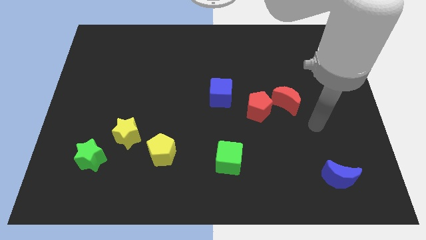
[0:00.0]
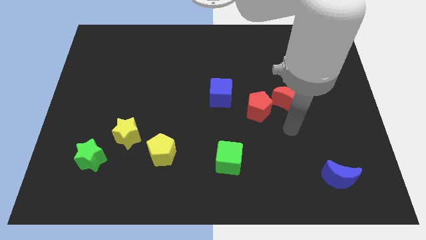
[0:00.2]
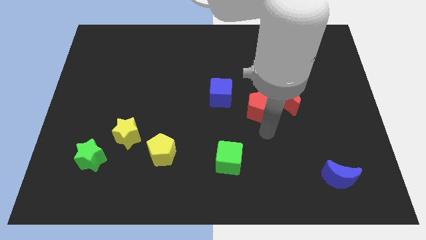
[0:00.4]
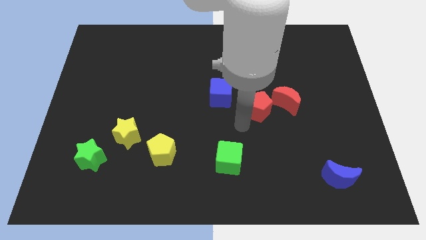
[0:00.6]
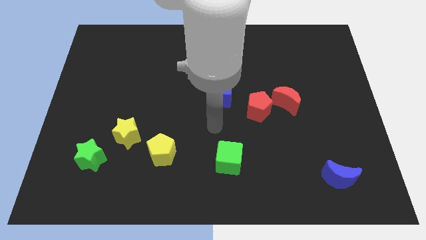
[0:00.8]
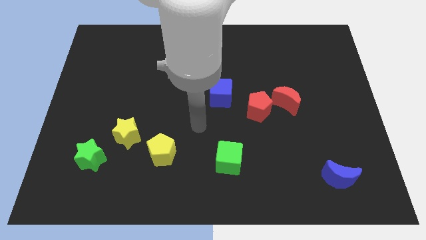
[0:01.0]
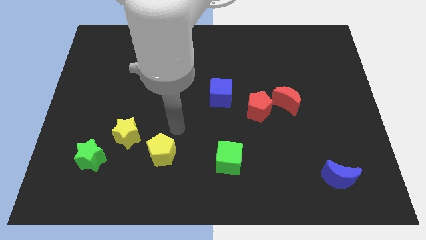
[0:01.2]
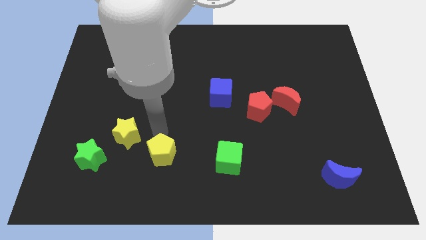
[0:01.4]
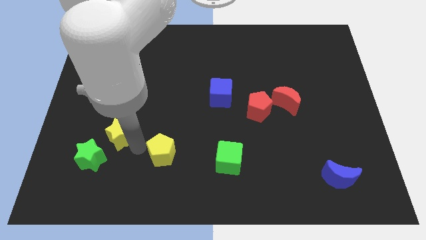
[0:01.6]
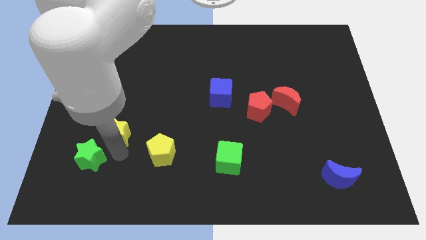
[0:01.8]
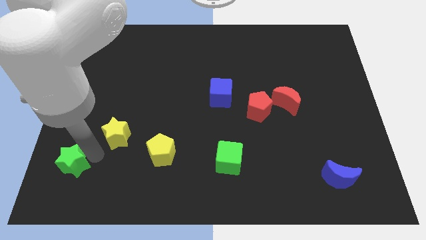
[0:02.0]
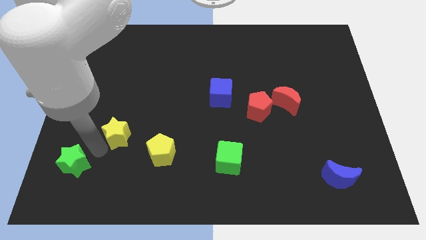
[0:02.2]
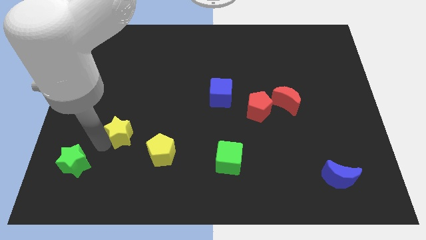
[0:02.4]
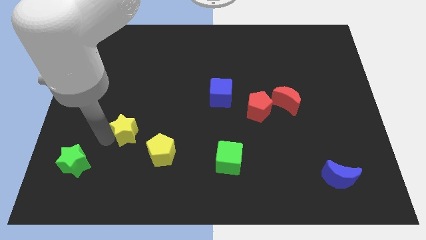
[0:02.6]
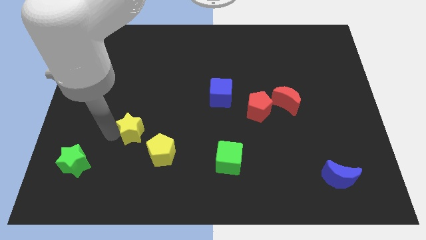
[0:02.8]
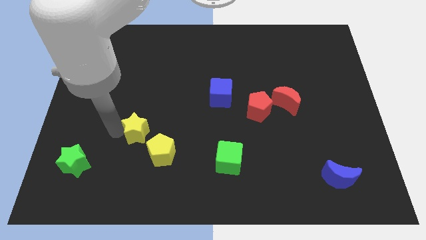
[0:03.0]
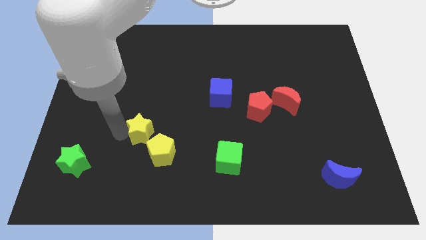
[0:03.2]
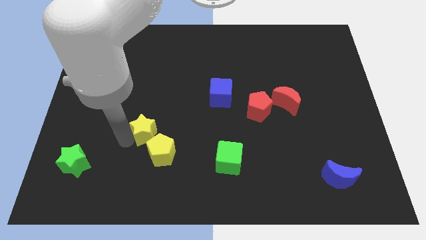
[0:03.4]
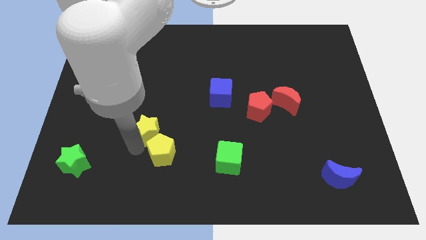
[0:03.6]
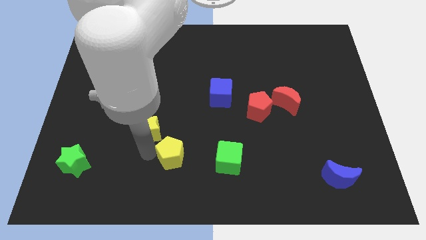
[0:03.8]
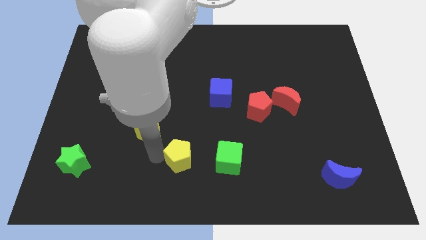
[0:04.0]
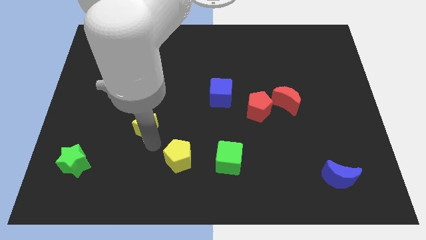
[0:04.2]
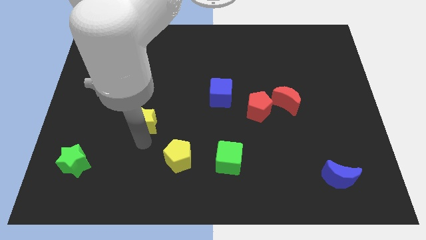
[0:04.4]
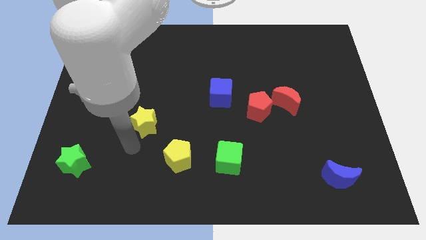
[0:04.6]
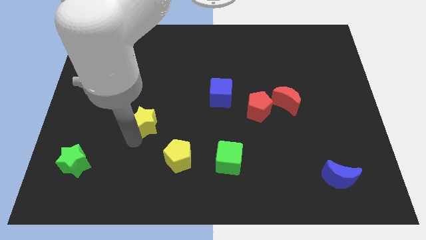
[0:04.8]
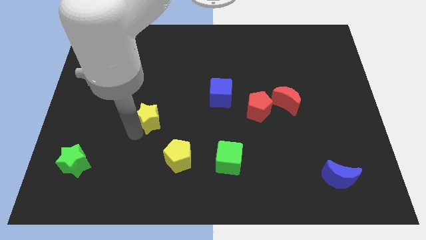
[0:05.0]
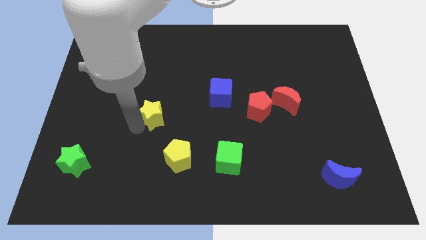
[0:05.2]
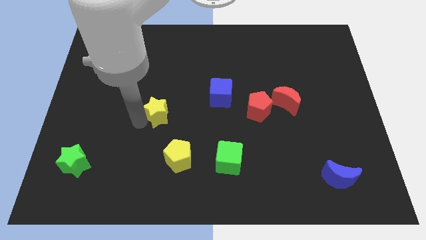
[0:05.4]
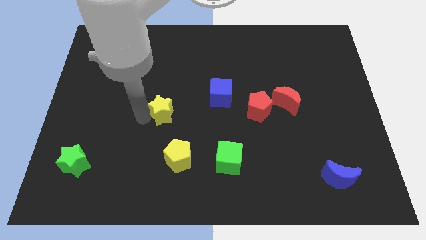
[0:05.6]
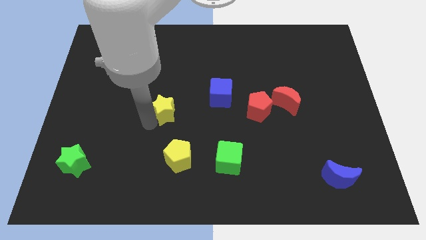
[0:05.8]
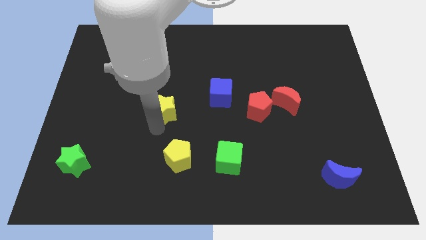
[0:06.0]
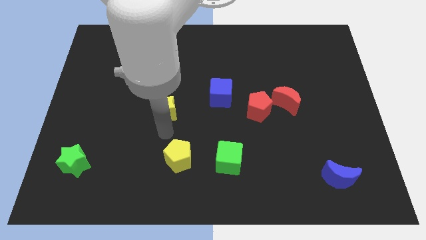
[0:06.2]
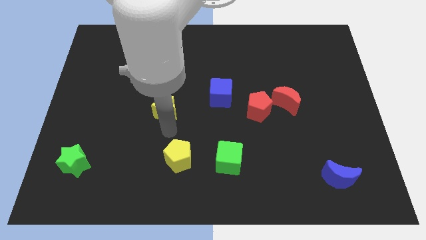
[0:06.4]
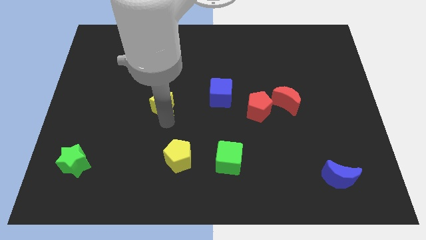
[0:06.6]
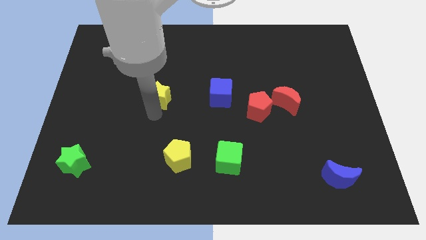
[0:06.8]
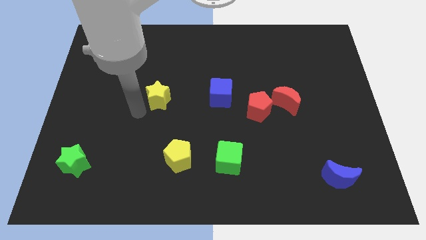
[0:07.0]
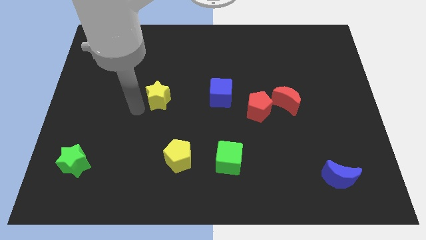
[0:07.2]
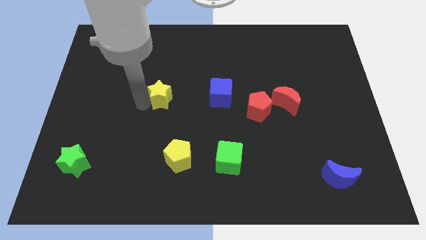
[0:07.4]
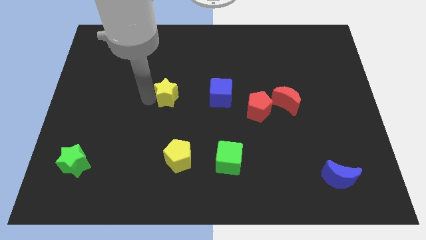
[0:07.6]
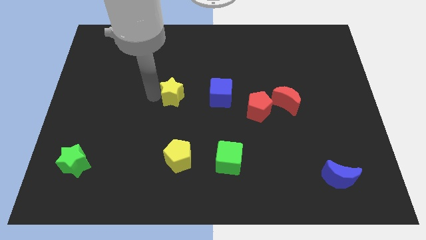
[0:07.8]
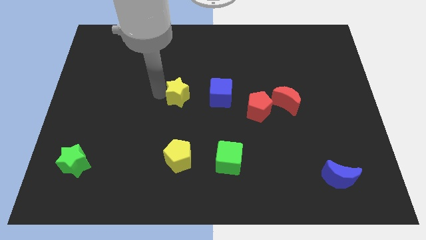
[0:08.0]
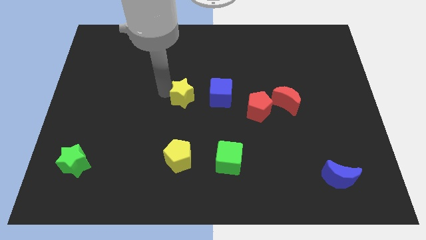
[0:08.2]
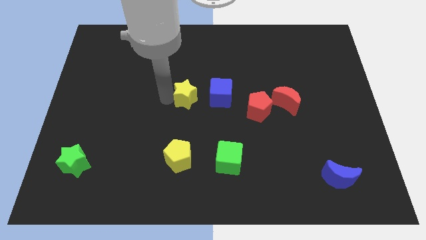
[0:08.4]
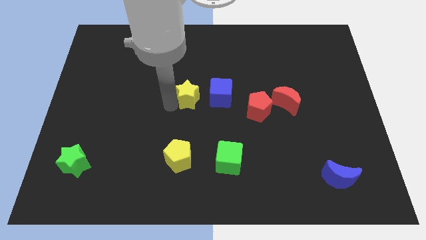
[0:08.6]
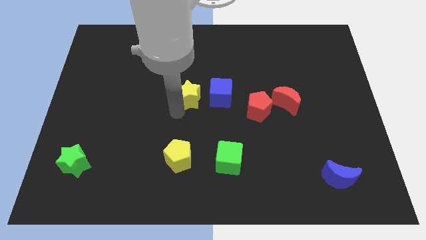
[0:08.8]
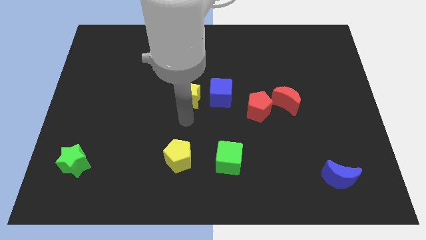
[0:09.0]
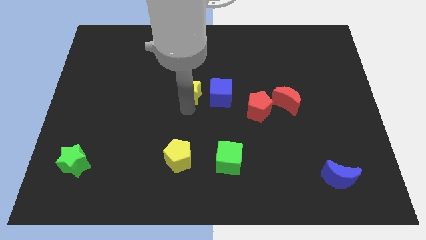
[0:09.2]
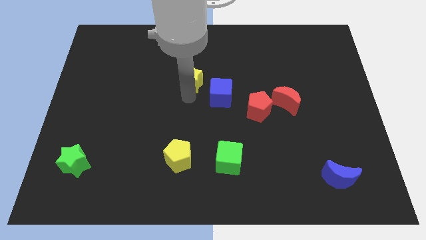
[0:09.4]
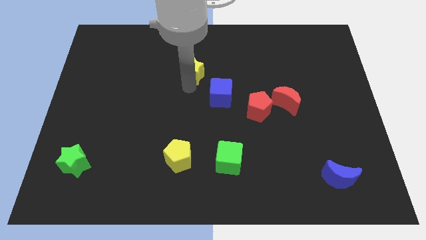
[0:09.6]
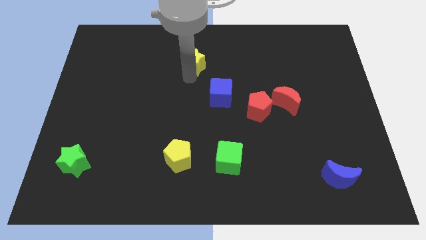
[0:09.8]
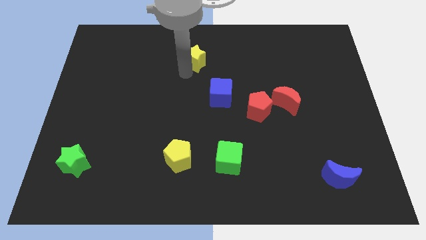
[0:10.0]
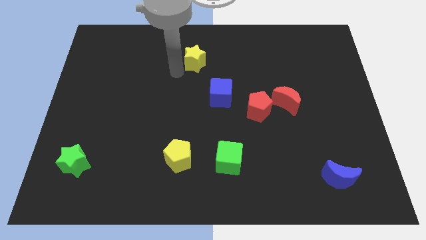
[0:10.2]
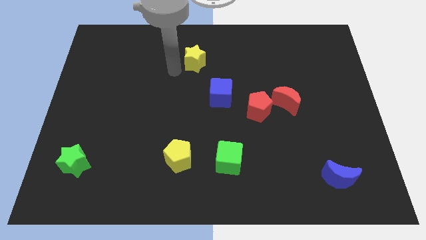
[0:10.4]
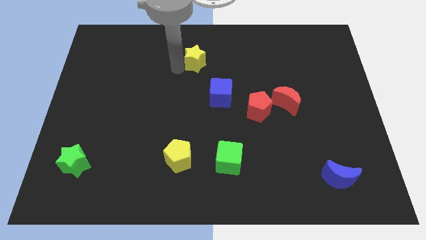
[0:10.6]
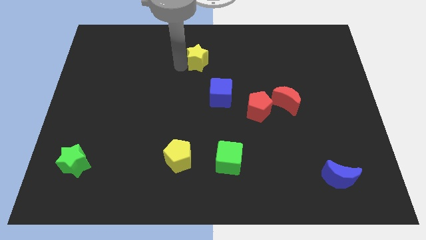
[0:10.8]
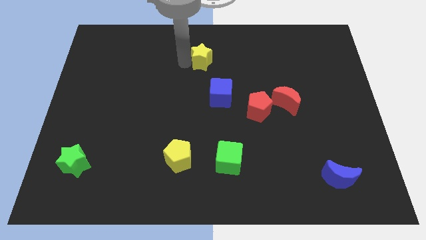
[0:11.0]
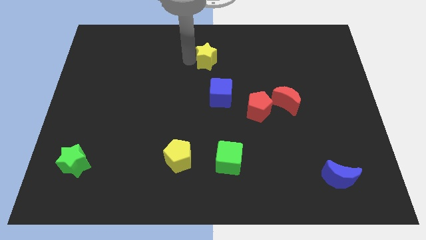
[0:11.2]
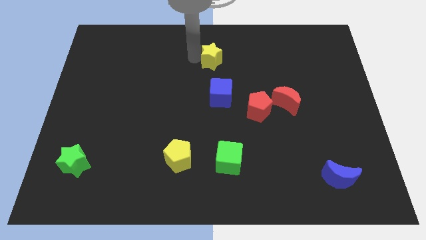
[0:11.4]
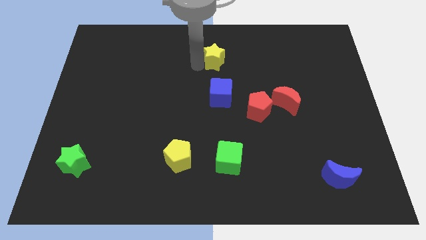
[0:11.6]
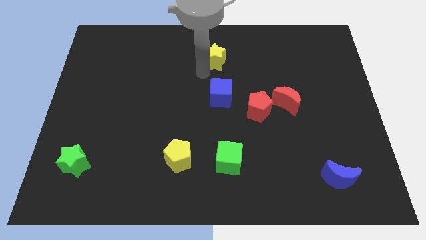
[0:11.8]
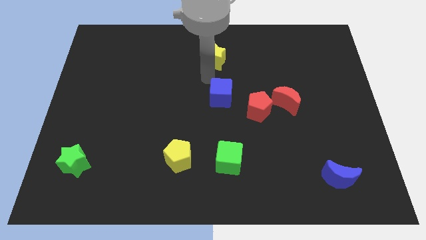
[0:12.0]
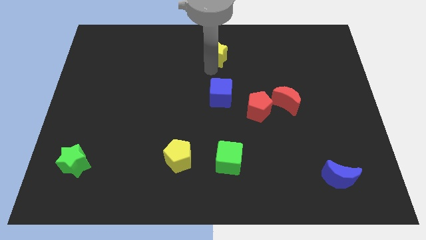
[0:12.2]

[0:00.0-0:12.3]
slide the yellow star to the top side
